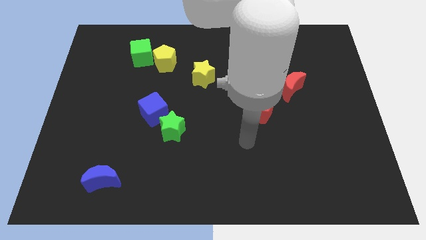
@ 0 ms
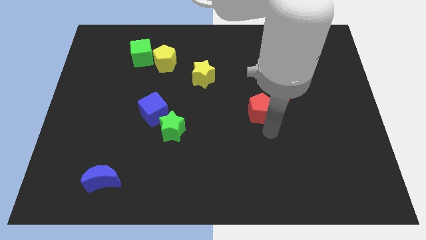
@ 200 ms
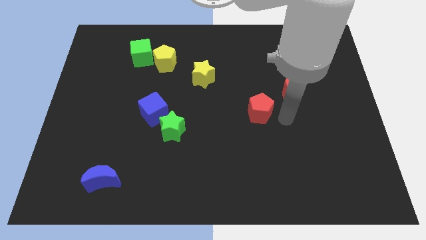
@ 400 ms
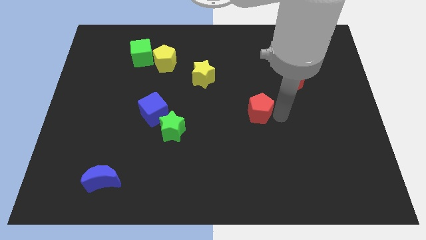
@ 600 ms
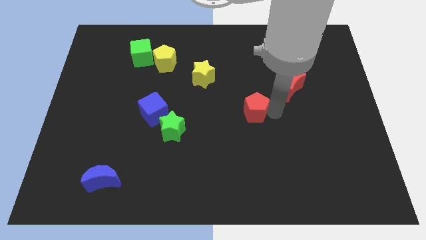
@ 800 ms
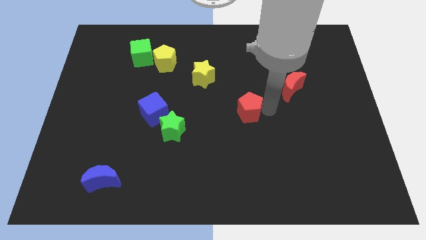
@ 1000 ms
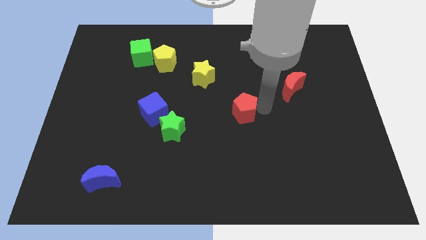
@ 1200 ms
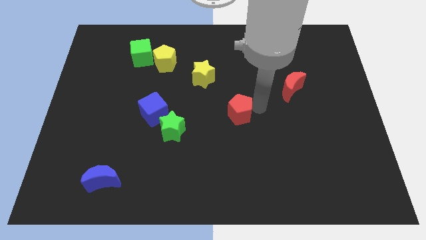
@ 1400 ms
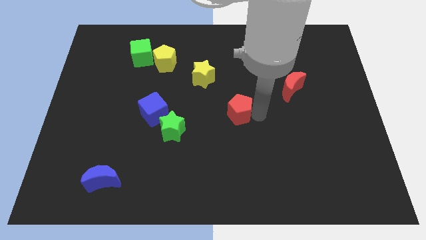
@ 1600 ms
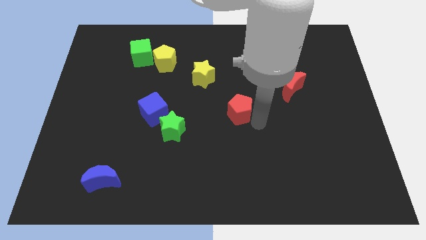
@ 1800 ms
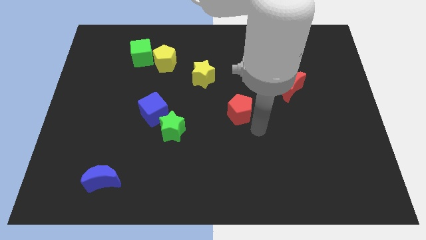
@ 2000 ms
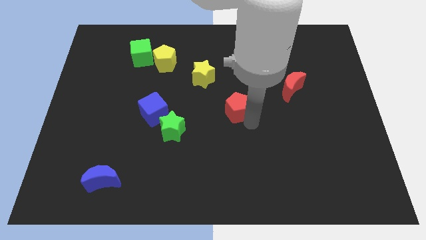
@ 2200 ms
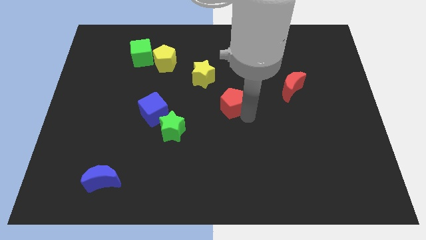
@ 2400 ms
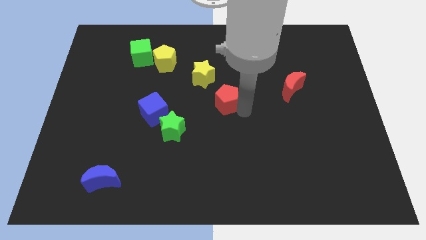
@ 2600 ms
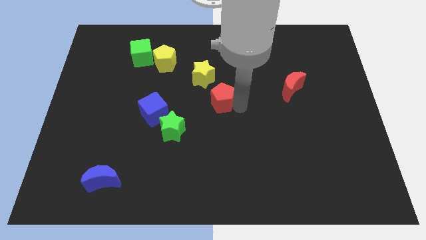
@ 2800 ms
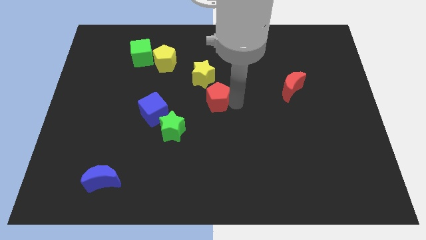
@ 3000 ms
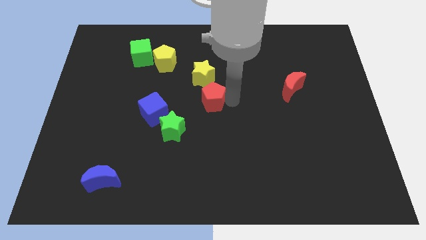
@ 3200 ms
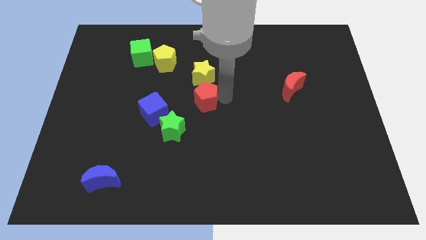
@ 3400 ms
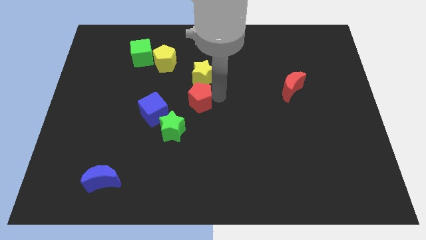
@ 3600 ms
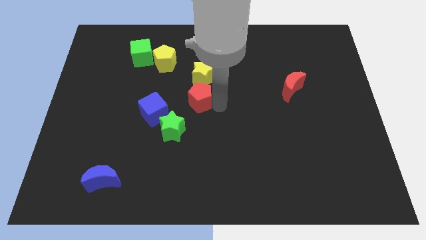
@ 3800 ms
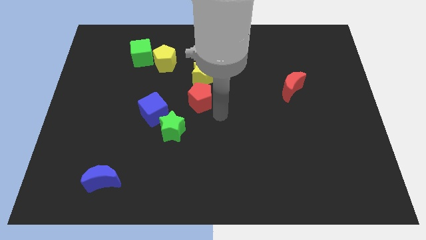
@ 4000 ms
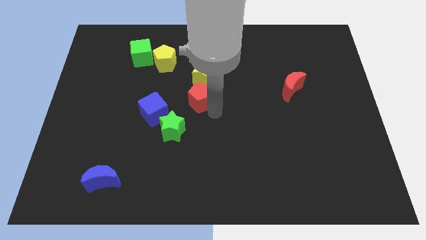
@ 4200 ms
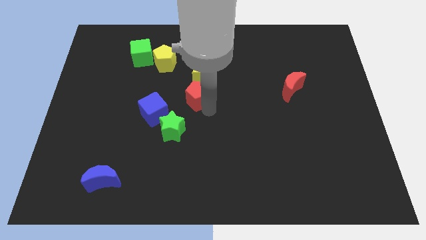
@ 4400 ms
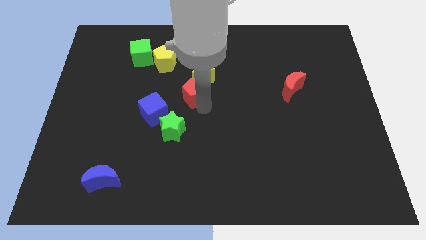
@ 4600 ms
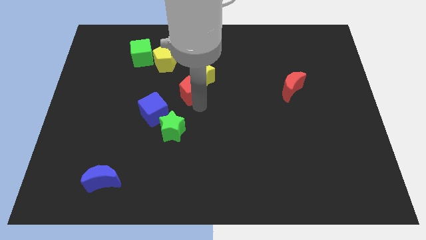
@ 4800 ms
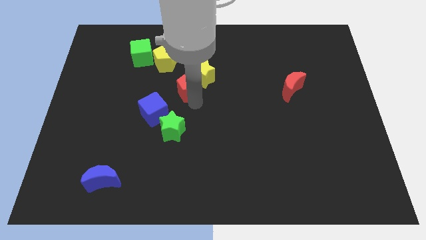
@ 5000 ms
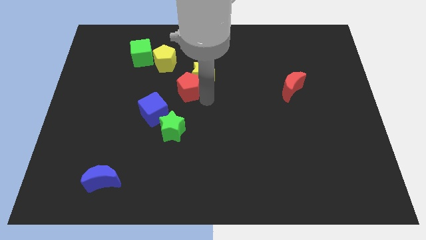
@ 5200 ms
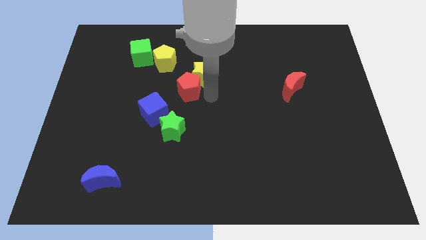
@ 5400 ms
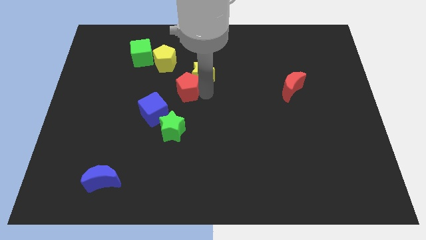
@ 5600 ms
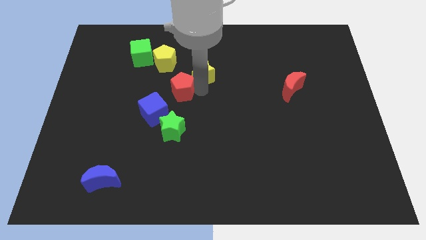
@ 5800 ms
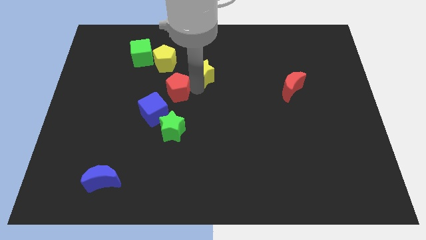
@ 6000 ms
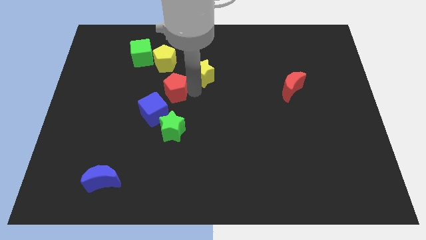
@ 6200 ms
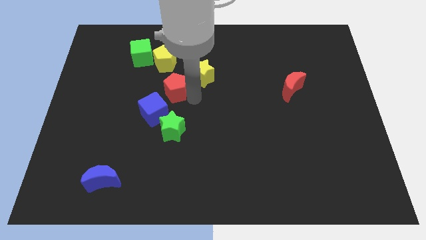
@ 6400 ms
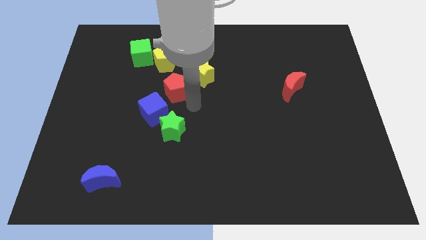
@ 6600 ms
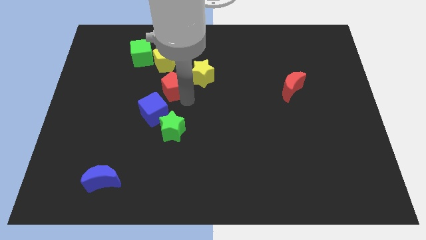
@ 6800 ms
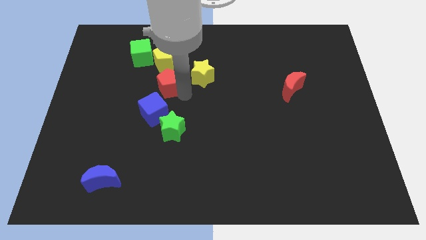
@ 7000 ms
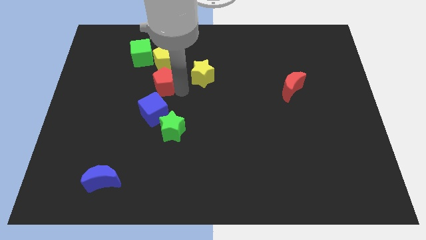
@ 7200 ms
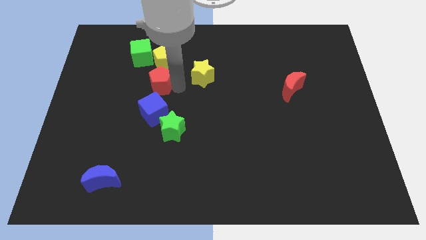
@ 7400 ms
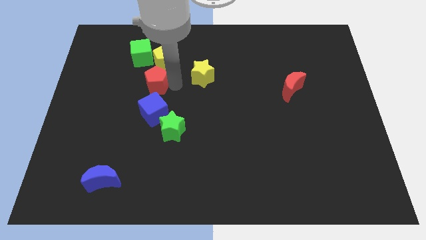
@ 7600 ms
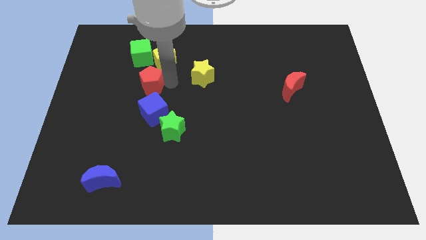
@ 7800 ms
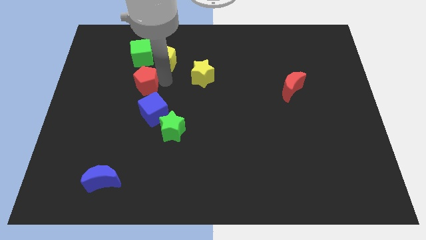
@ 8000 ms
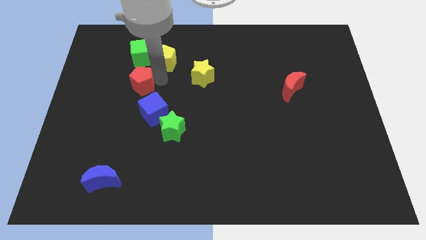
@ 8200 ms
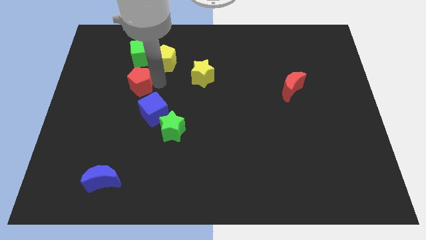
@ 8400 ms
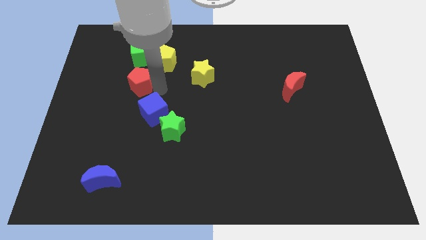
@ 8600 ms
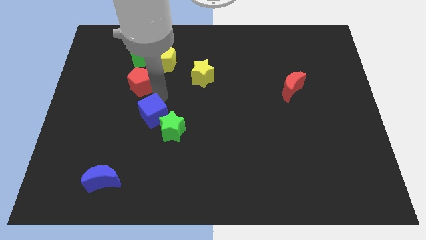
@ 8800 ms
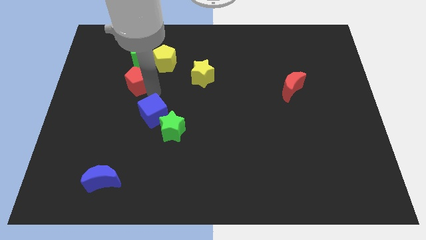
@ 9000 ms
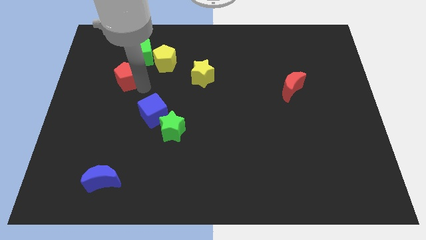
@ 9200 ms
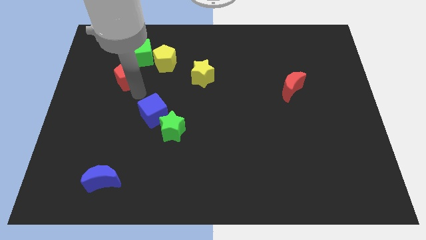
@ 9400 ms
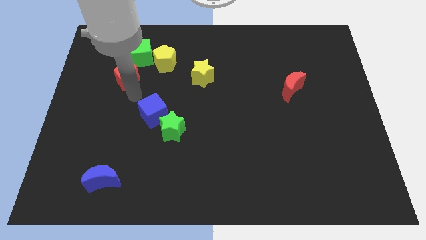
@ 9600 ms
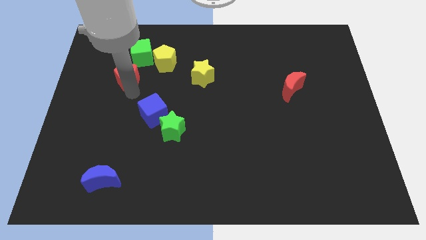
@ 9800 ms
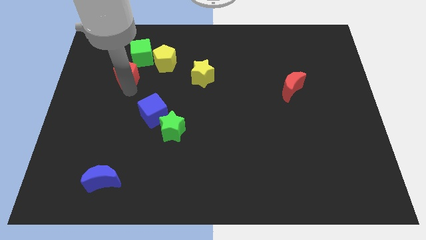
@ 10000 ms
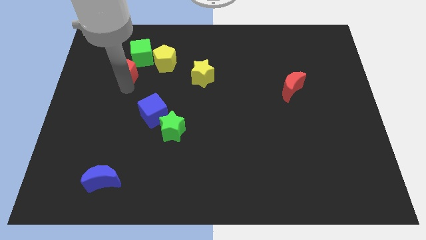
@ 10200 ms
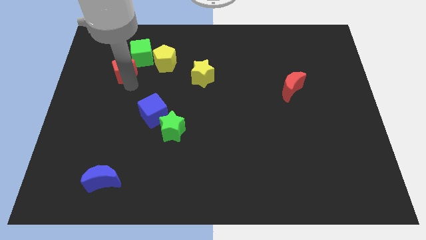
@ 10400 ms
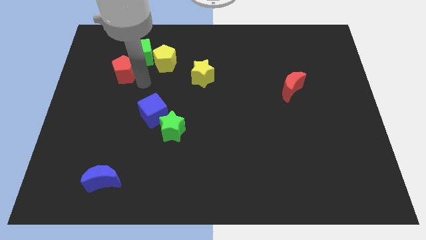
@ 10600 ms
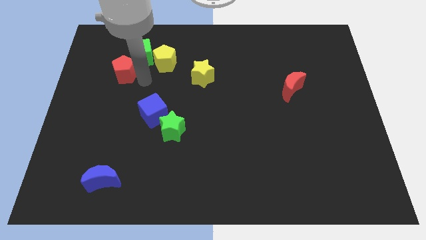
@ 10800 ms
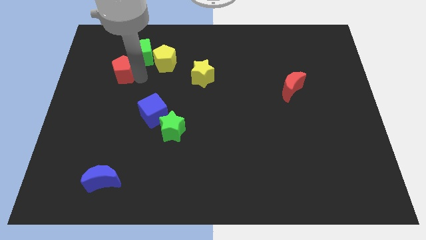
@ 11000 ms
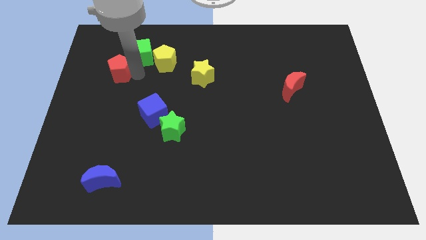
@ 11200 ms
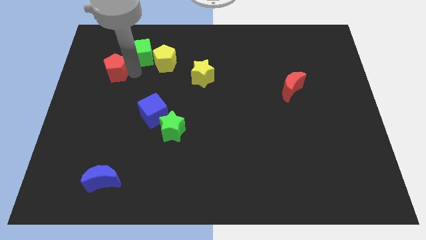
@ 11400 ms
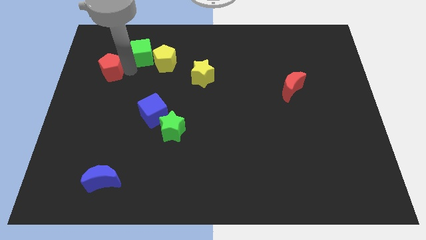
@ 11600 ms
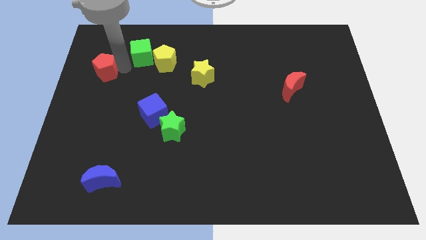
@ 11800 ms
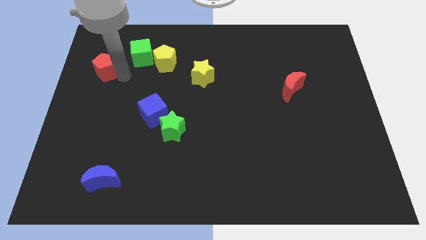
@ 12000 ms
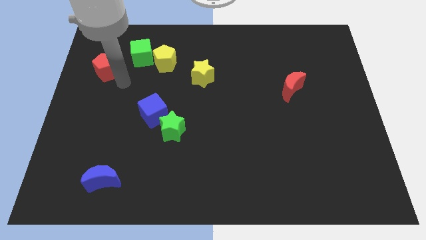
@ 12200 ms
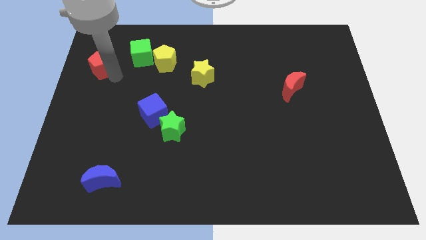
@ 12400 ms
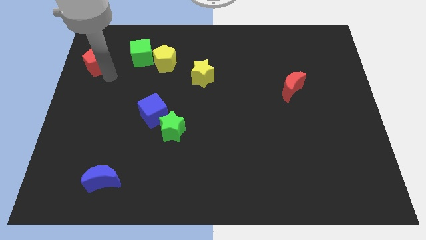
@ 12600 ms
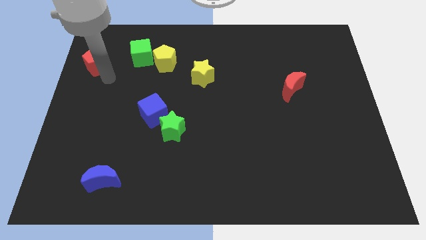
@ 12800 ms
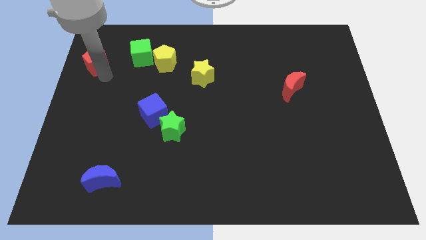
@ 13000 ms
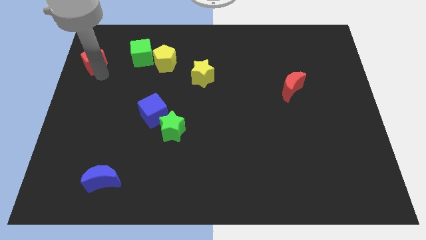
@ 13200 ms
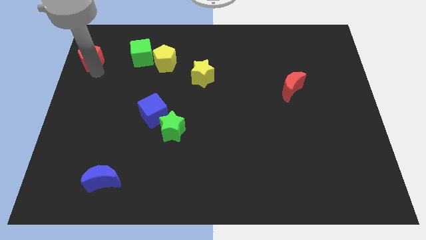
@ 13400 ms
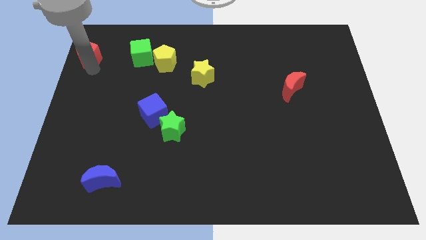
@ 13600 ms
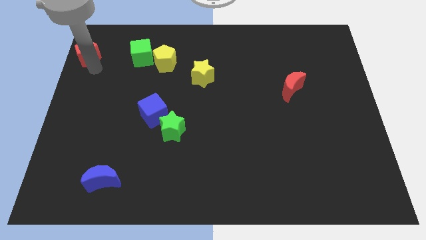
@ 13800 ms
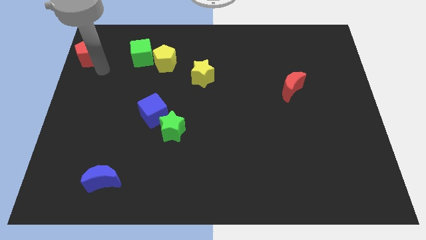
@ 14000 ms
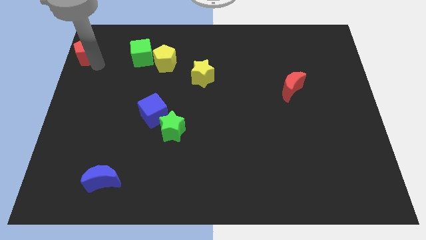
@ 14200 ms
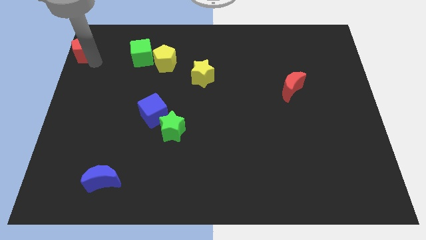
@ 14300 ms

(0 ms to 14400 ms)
move the red pentagon to the top left corner
